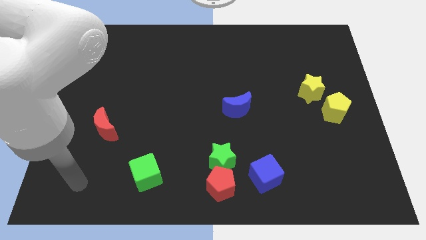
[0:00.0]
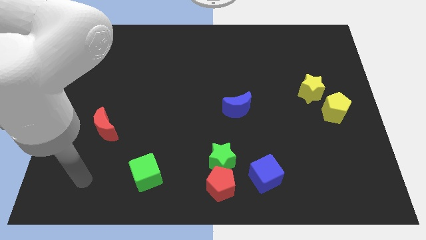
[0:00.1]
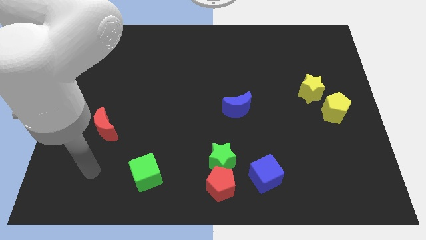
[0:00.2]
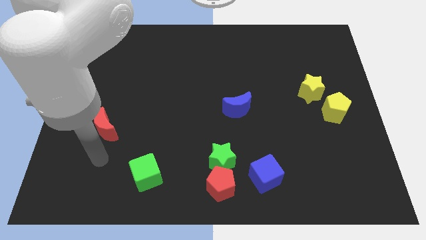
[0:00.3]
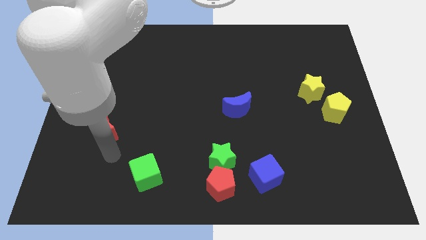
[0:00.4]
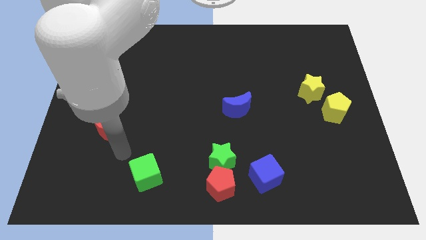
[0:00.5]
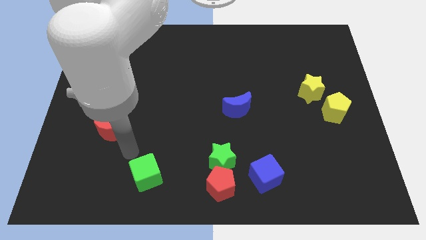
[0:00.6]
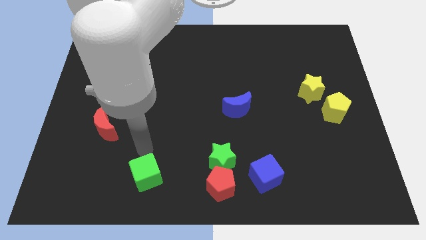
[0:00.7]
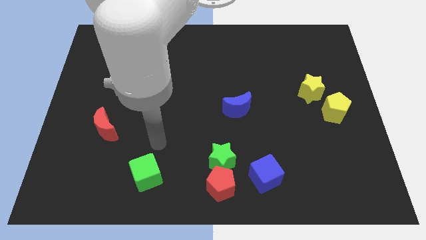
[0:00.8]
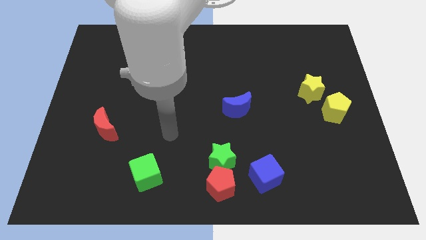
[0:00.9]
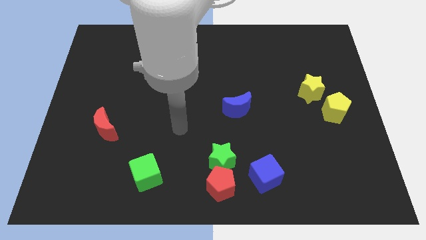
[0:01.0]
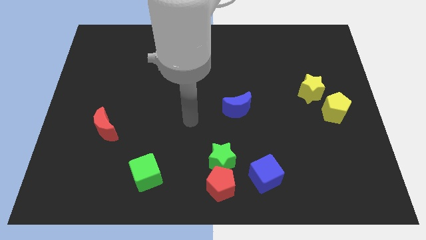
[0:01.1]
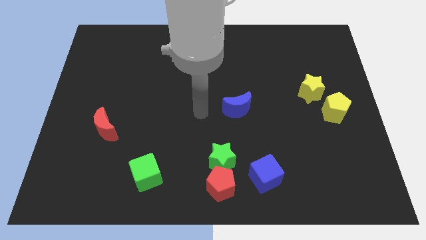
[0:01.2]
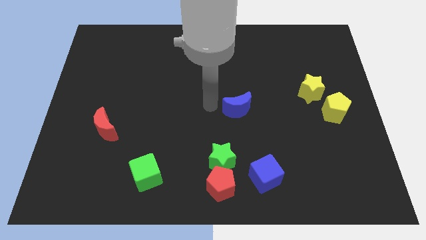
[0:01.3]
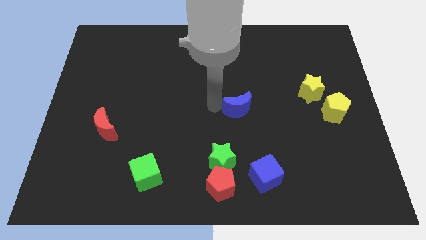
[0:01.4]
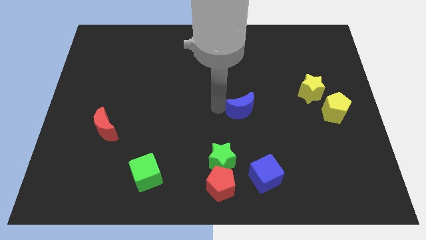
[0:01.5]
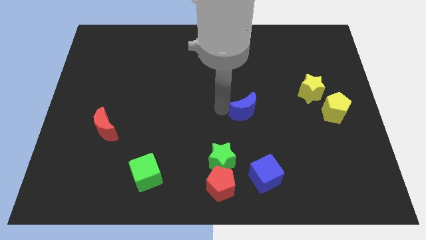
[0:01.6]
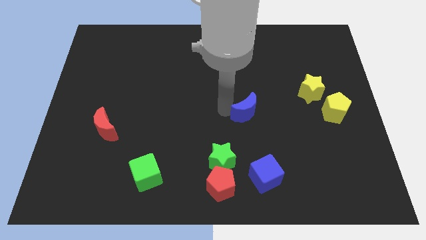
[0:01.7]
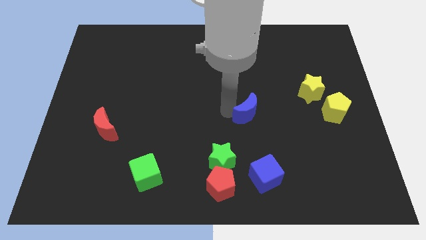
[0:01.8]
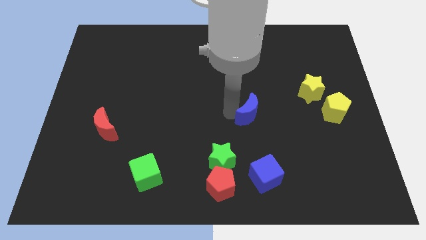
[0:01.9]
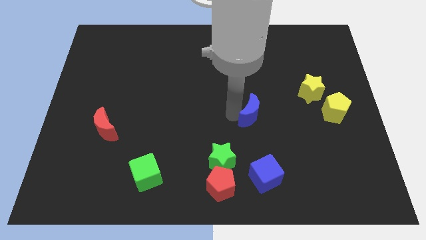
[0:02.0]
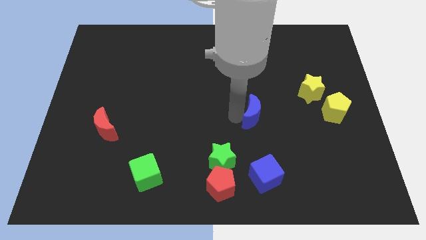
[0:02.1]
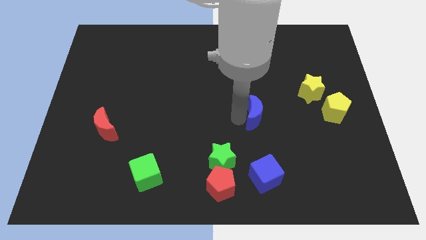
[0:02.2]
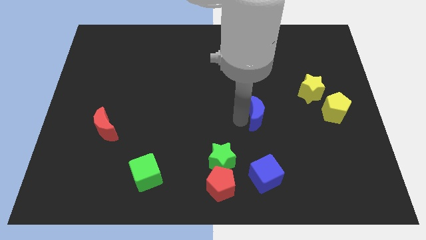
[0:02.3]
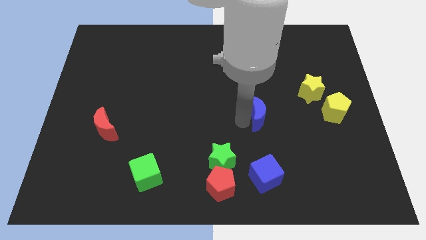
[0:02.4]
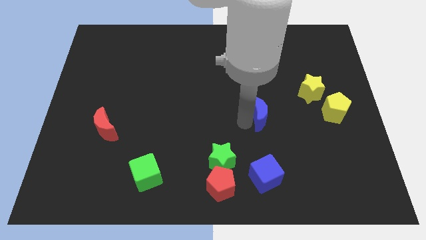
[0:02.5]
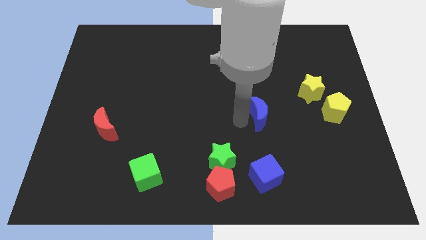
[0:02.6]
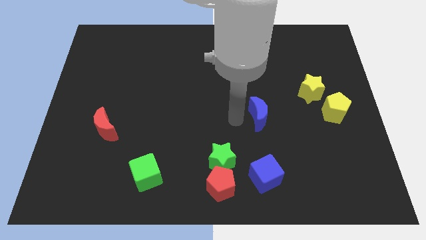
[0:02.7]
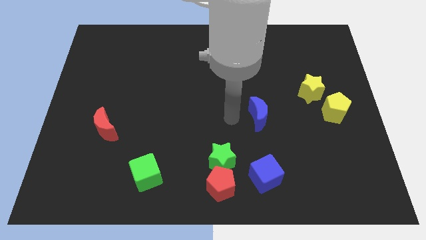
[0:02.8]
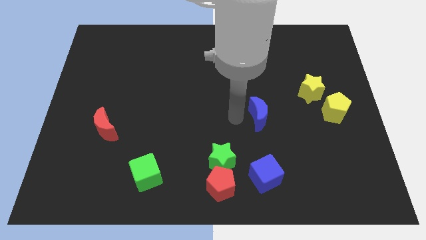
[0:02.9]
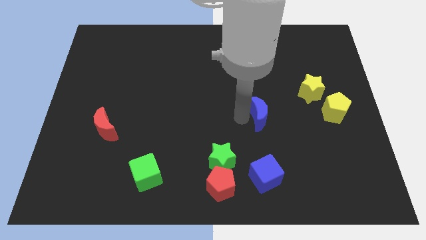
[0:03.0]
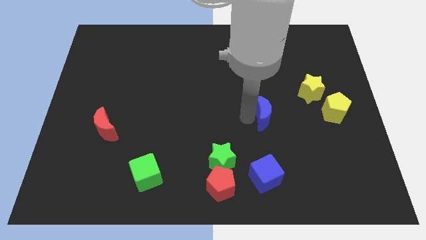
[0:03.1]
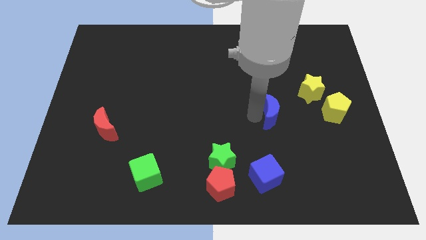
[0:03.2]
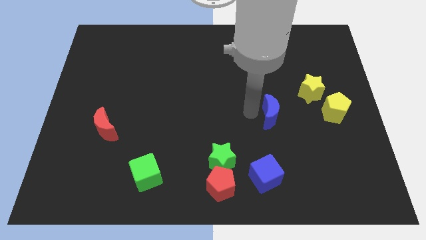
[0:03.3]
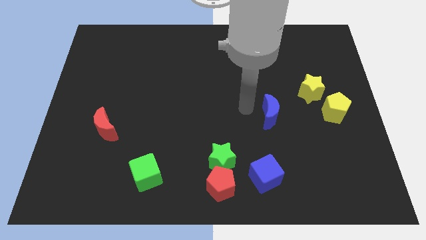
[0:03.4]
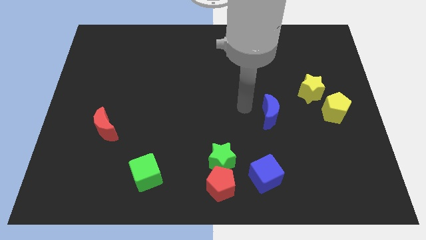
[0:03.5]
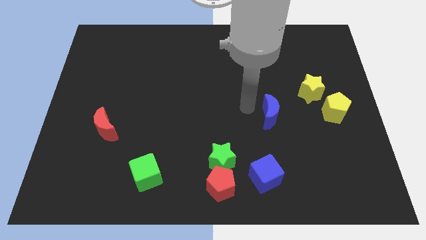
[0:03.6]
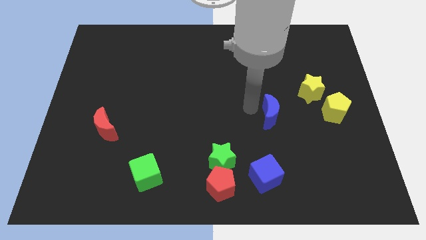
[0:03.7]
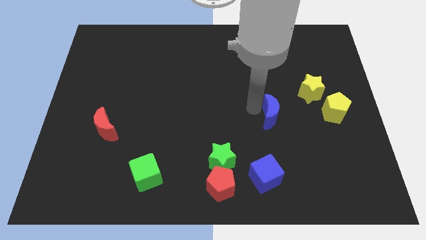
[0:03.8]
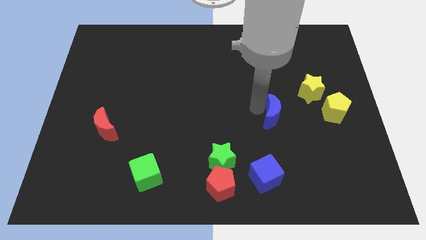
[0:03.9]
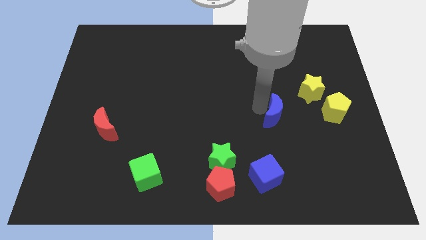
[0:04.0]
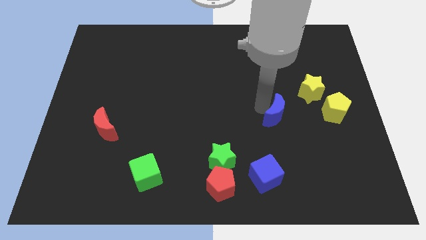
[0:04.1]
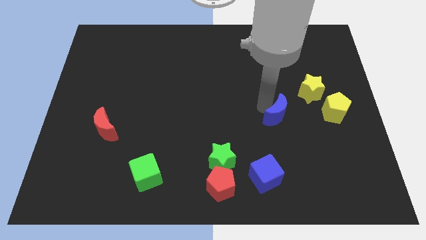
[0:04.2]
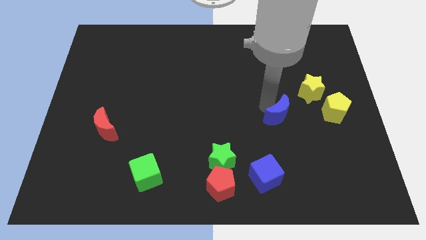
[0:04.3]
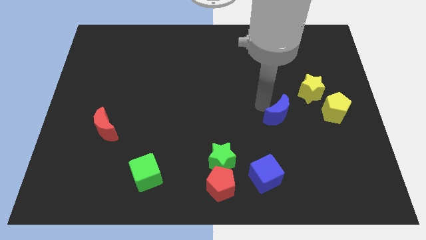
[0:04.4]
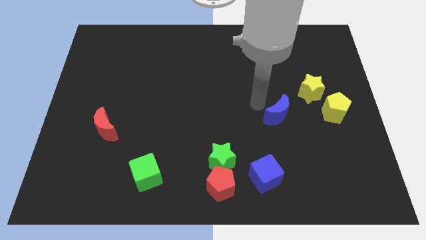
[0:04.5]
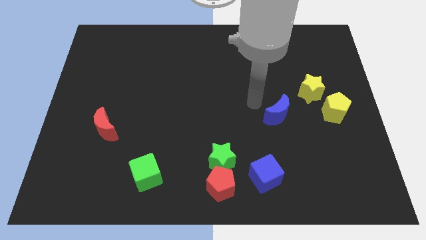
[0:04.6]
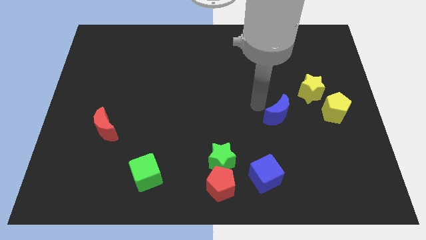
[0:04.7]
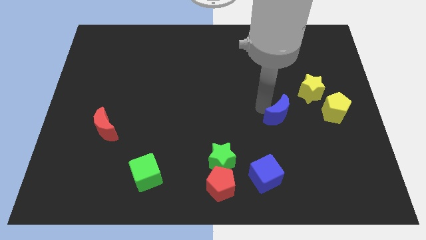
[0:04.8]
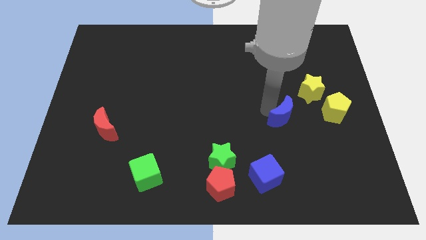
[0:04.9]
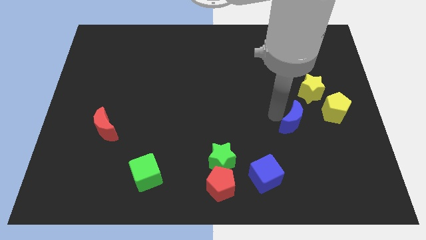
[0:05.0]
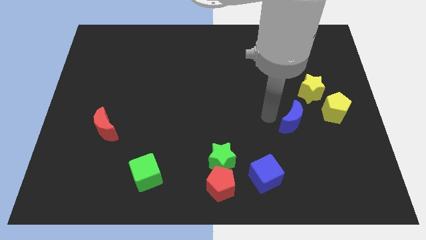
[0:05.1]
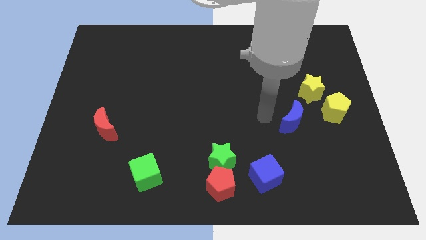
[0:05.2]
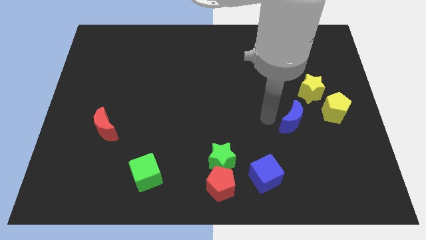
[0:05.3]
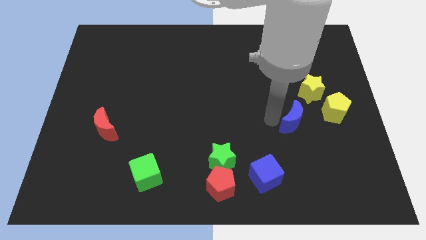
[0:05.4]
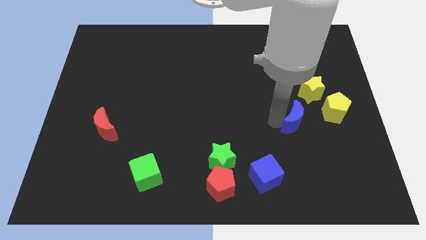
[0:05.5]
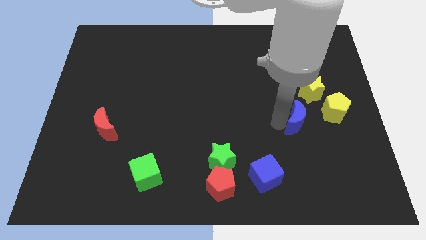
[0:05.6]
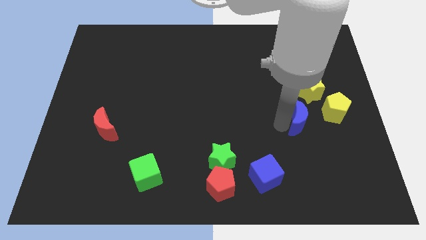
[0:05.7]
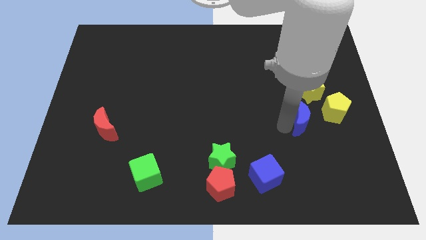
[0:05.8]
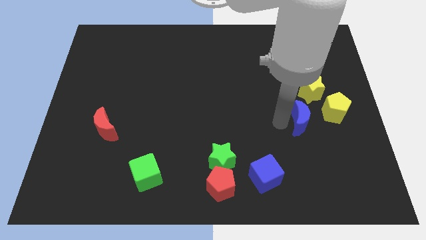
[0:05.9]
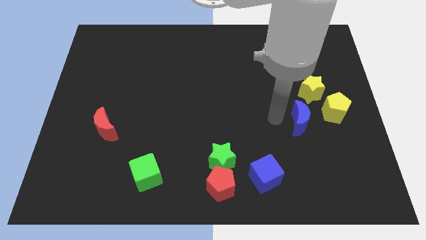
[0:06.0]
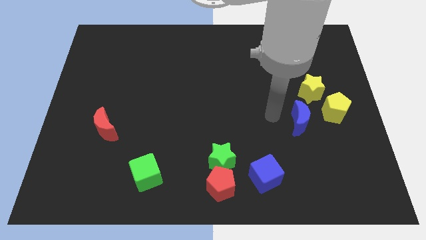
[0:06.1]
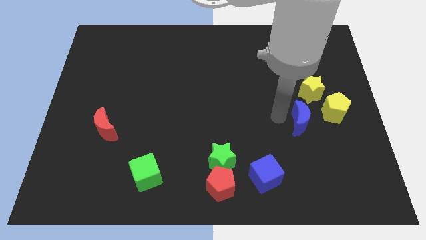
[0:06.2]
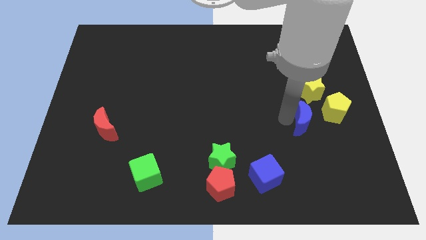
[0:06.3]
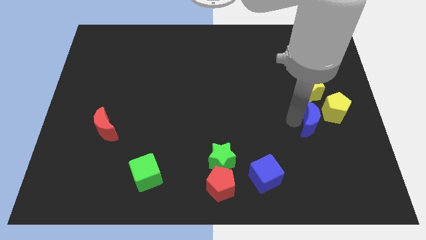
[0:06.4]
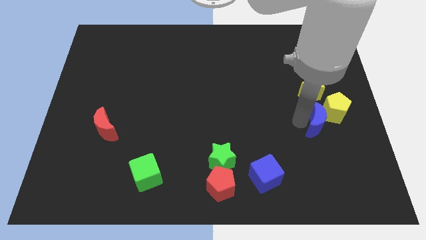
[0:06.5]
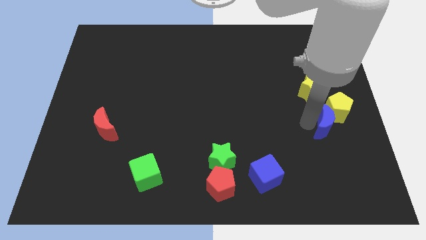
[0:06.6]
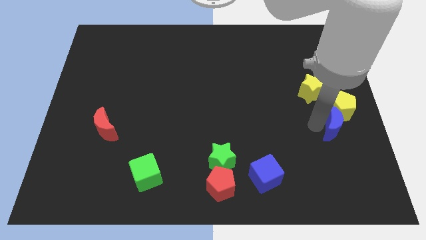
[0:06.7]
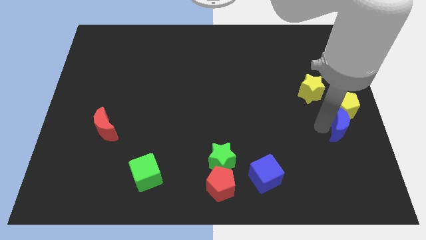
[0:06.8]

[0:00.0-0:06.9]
move the blue moon to the right side
